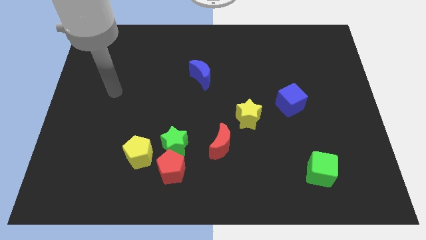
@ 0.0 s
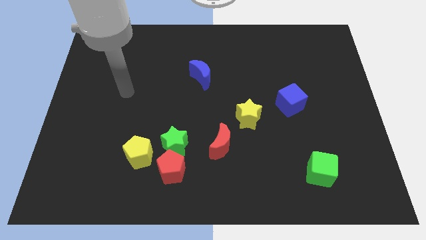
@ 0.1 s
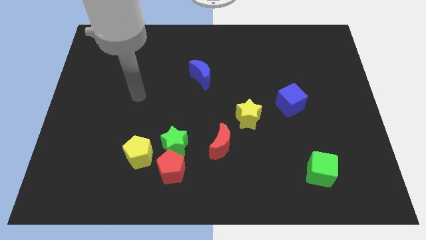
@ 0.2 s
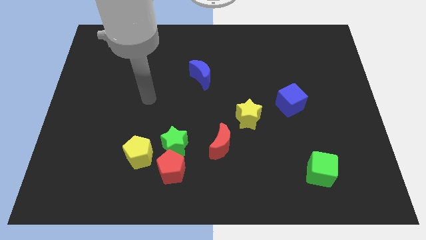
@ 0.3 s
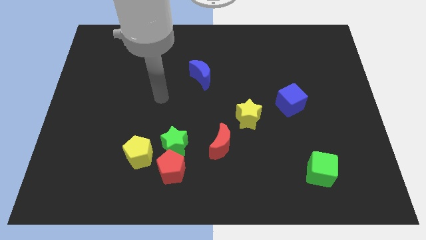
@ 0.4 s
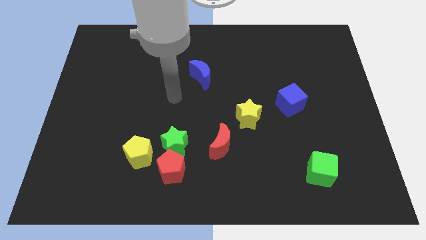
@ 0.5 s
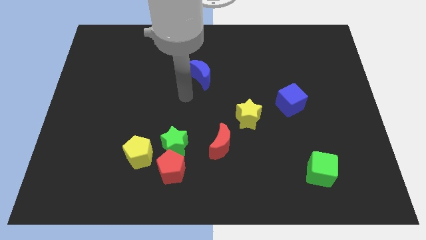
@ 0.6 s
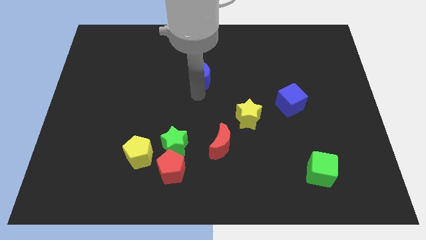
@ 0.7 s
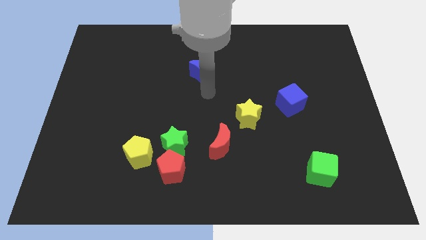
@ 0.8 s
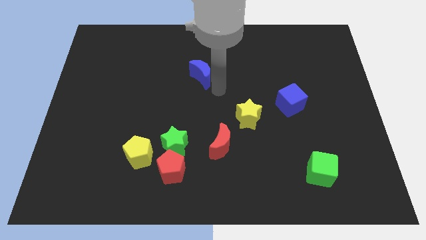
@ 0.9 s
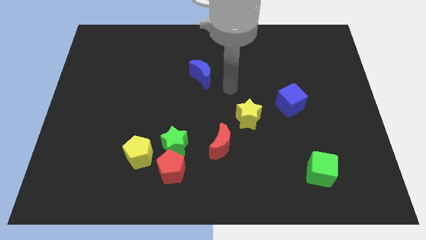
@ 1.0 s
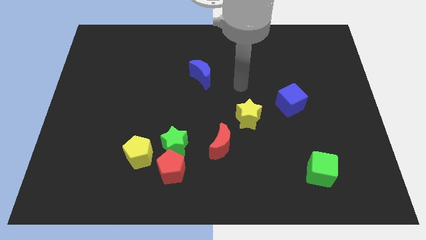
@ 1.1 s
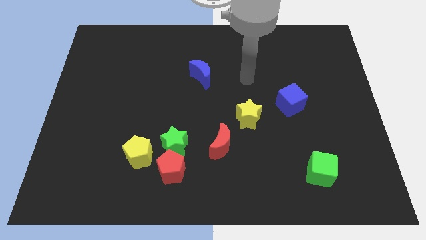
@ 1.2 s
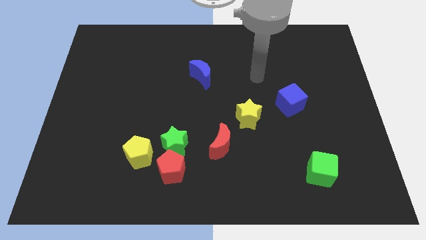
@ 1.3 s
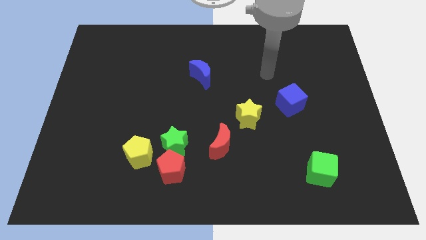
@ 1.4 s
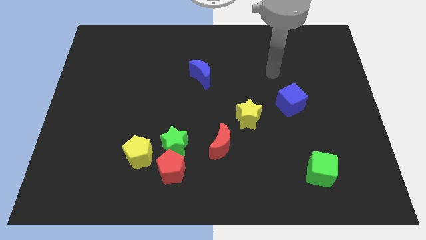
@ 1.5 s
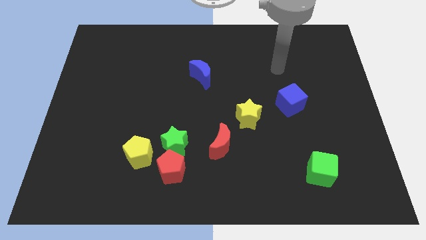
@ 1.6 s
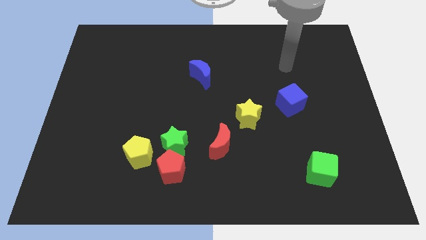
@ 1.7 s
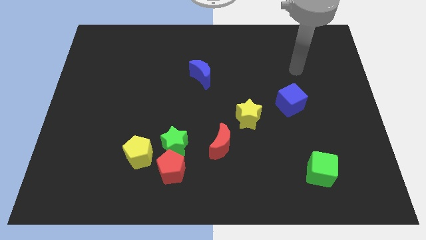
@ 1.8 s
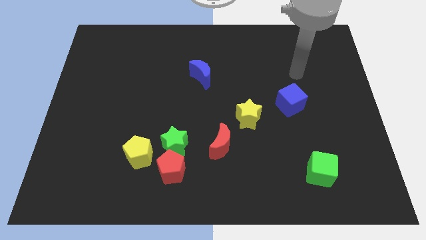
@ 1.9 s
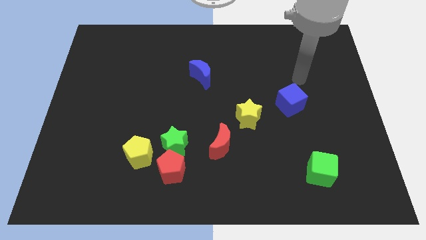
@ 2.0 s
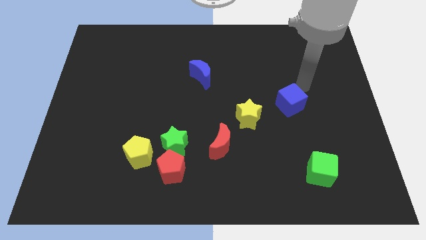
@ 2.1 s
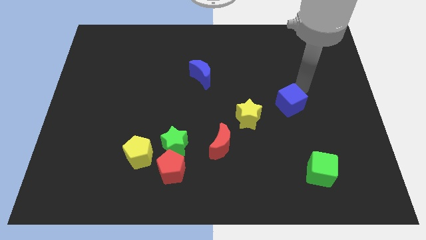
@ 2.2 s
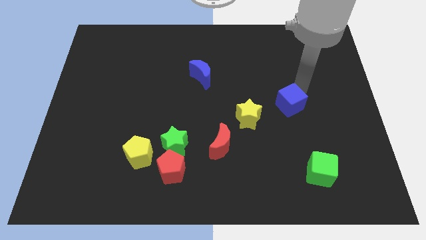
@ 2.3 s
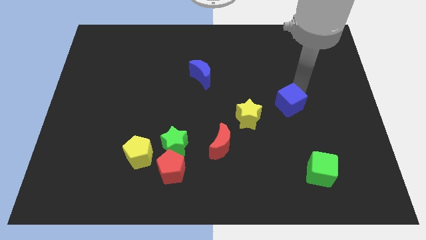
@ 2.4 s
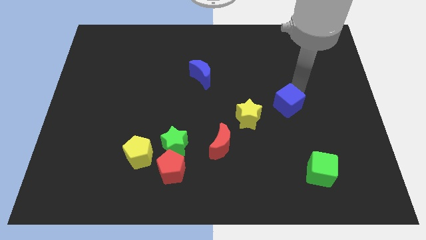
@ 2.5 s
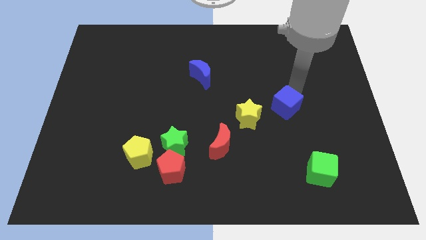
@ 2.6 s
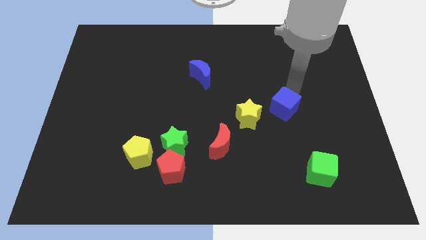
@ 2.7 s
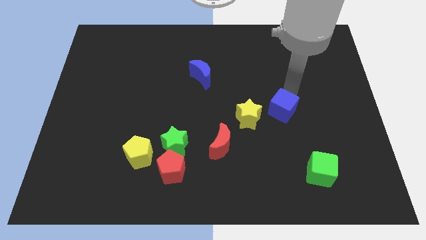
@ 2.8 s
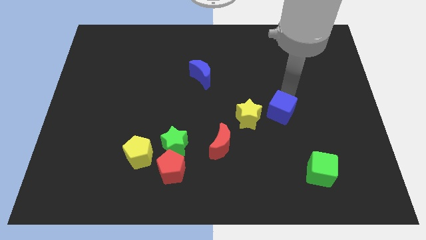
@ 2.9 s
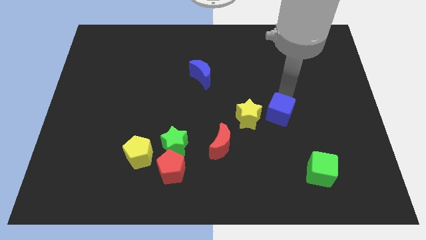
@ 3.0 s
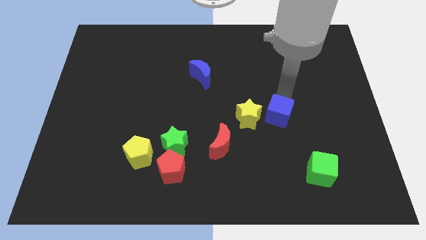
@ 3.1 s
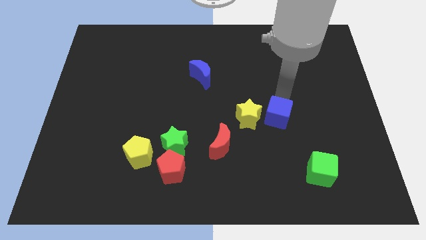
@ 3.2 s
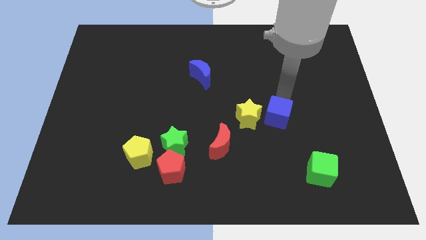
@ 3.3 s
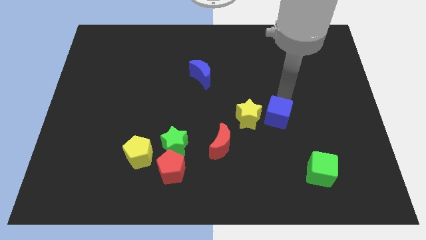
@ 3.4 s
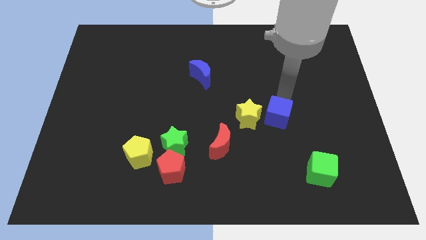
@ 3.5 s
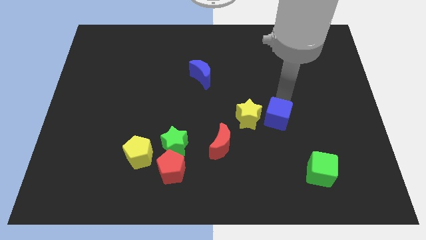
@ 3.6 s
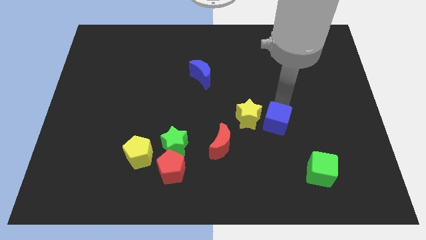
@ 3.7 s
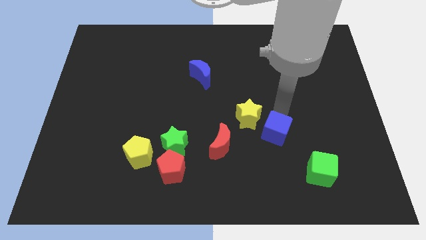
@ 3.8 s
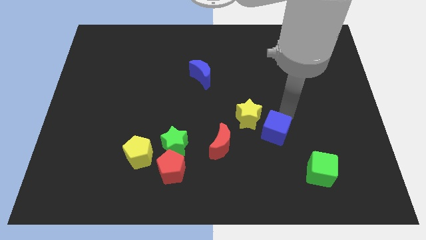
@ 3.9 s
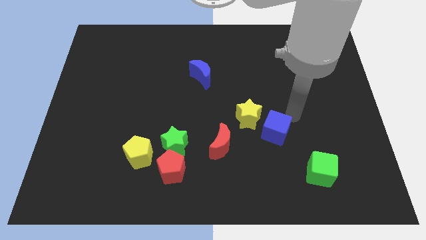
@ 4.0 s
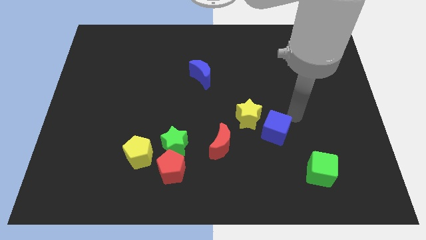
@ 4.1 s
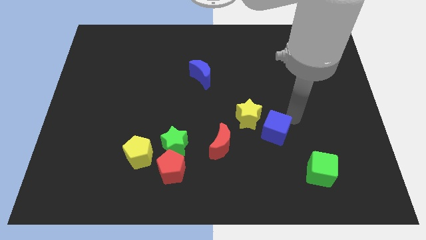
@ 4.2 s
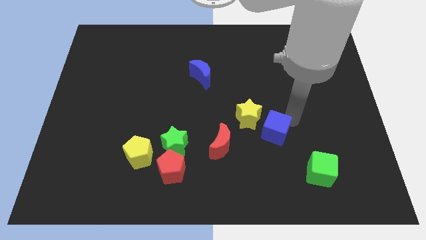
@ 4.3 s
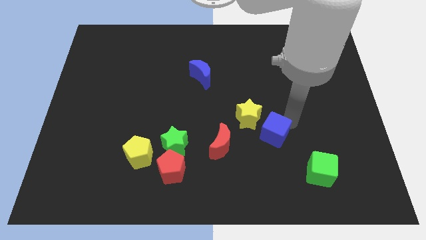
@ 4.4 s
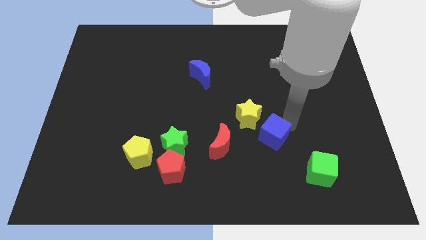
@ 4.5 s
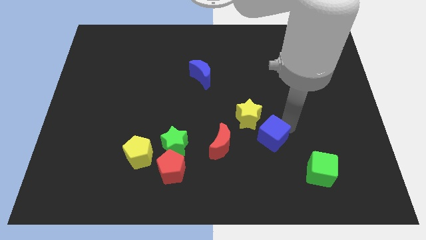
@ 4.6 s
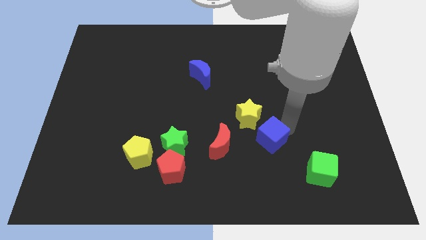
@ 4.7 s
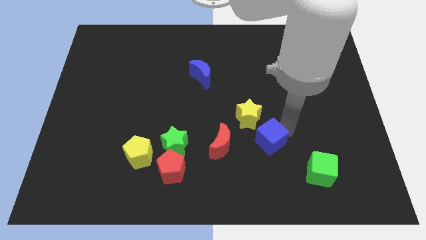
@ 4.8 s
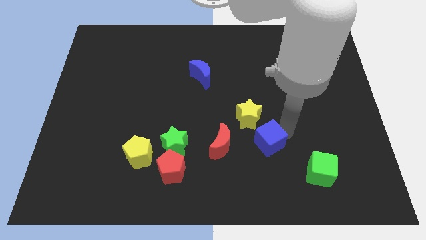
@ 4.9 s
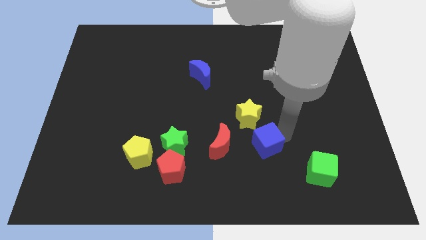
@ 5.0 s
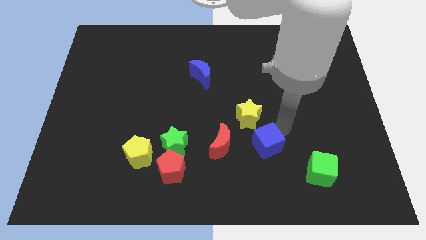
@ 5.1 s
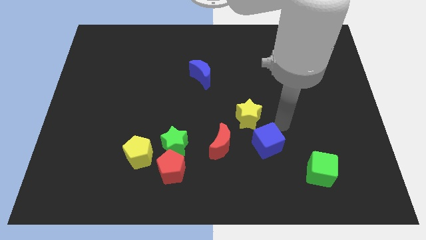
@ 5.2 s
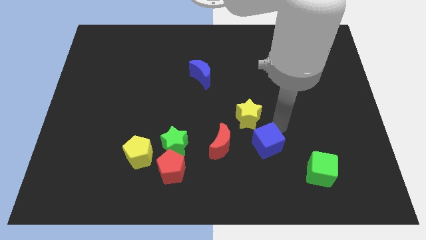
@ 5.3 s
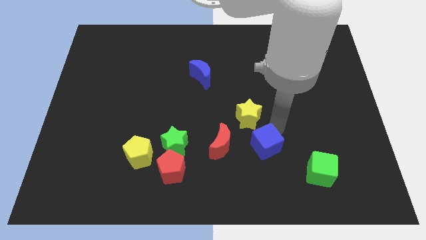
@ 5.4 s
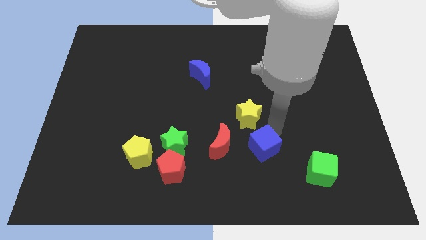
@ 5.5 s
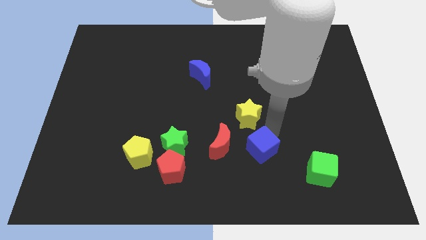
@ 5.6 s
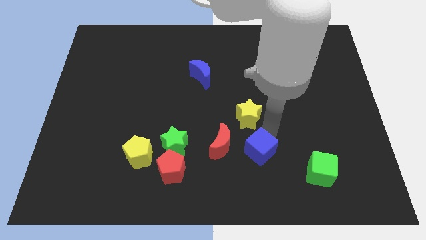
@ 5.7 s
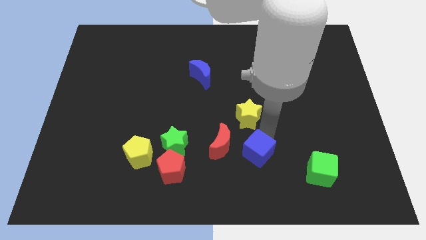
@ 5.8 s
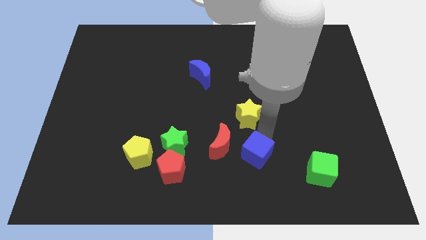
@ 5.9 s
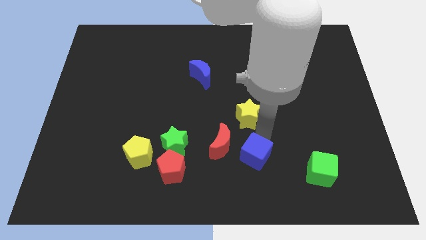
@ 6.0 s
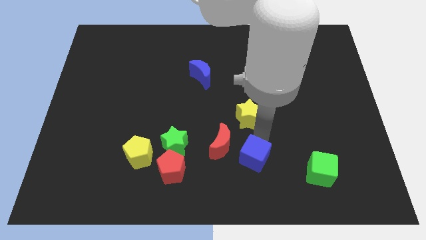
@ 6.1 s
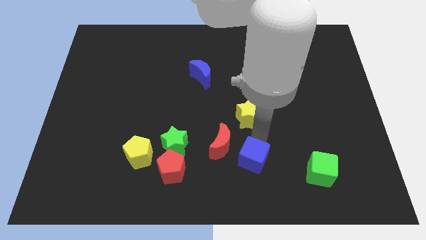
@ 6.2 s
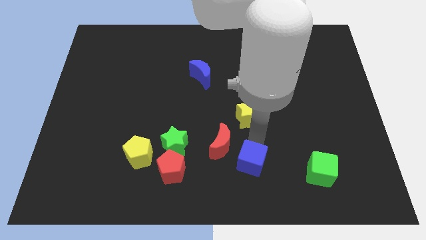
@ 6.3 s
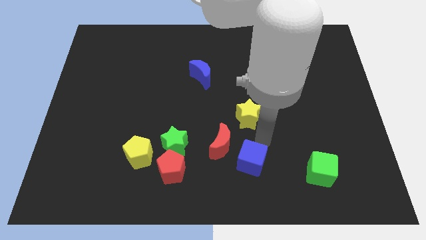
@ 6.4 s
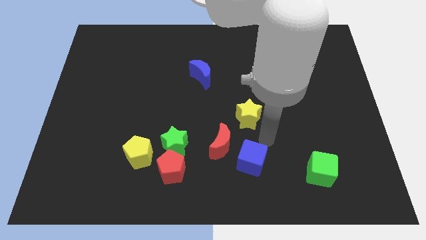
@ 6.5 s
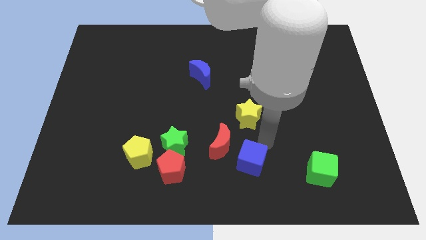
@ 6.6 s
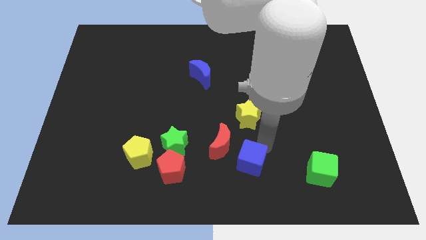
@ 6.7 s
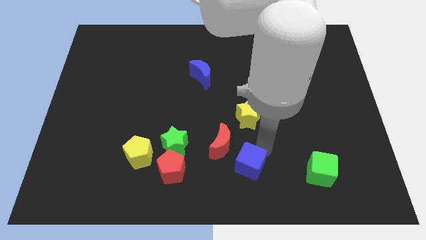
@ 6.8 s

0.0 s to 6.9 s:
put the blue cube to the bottom
